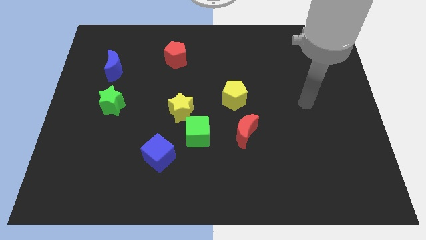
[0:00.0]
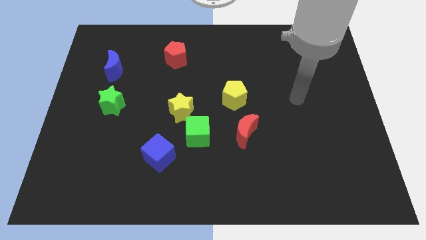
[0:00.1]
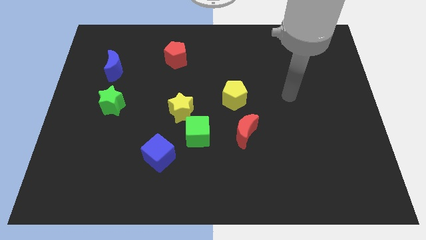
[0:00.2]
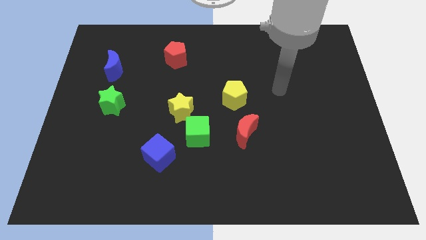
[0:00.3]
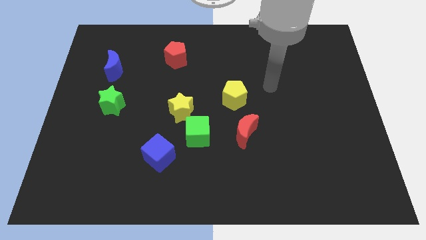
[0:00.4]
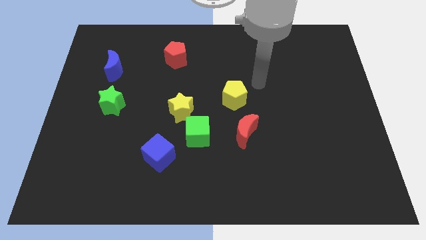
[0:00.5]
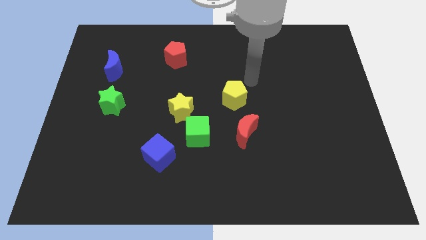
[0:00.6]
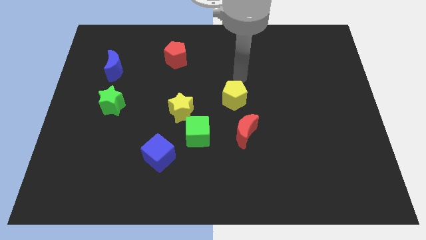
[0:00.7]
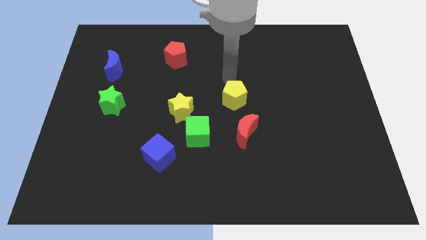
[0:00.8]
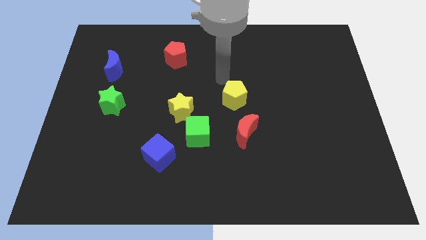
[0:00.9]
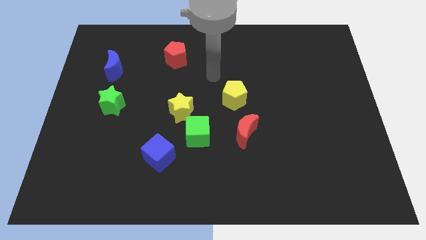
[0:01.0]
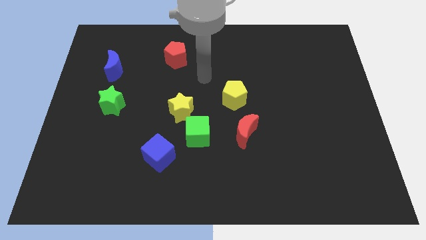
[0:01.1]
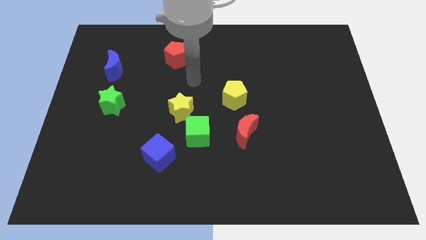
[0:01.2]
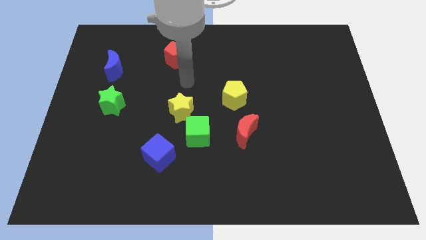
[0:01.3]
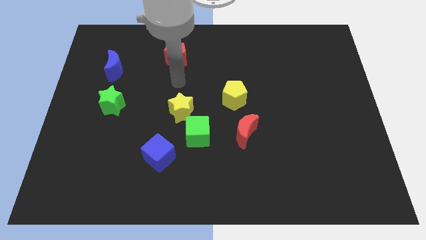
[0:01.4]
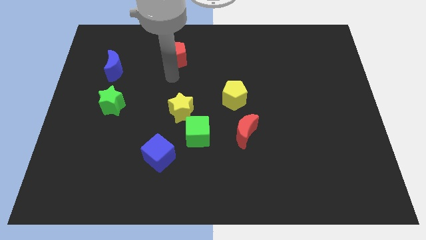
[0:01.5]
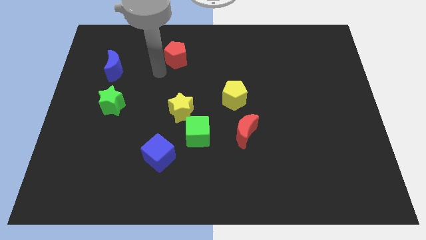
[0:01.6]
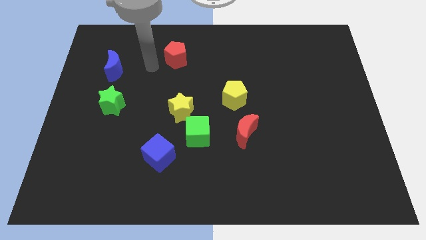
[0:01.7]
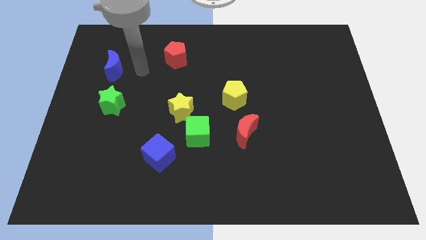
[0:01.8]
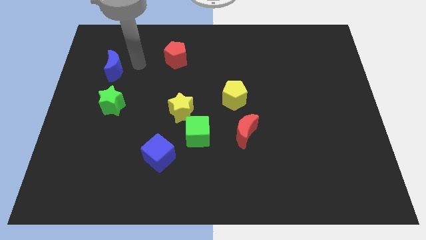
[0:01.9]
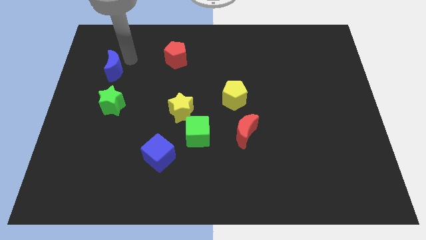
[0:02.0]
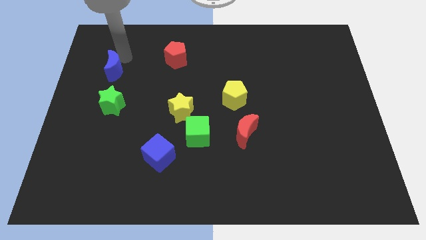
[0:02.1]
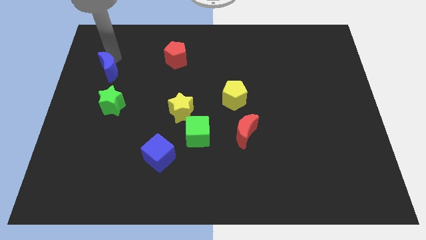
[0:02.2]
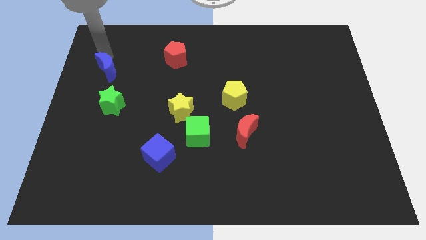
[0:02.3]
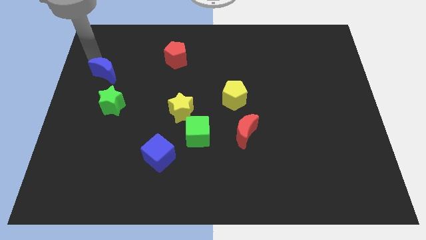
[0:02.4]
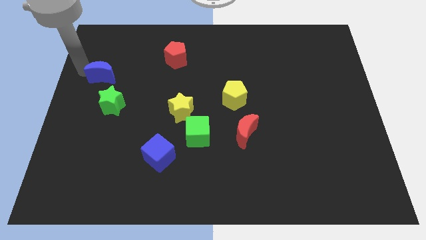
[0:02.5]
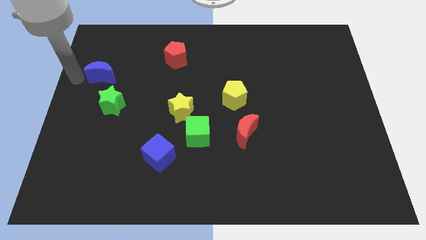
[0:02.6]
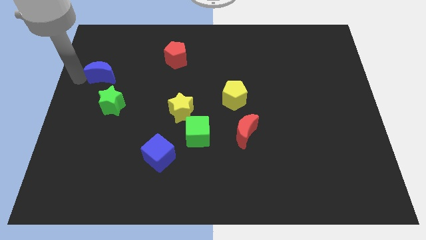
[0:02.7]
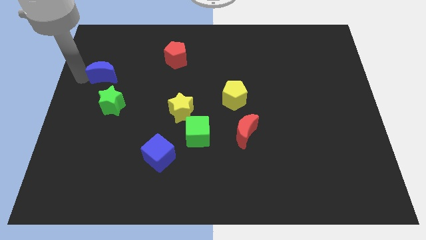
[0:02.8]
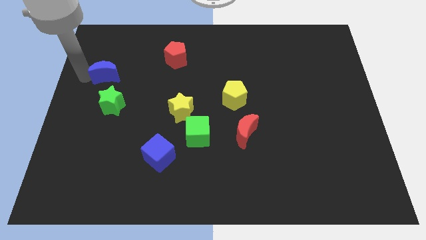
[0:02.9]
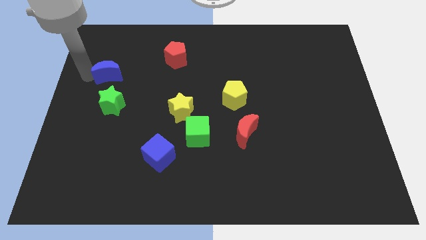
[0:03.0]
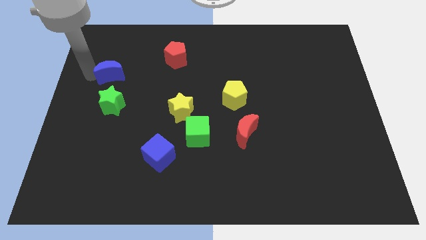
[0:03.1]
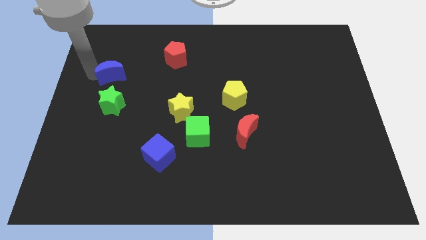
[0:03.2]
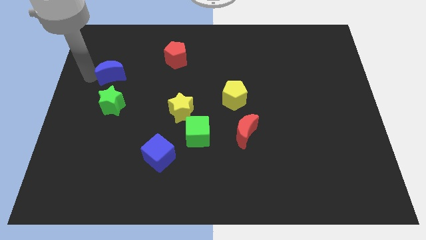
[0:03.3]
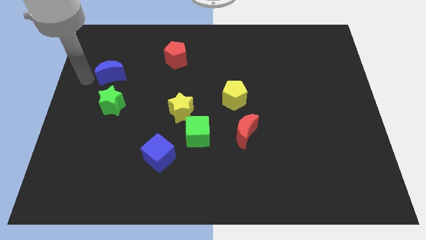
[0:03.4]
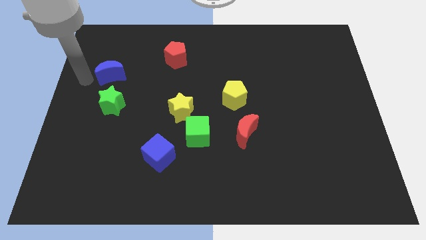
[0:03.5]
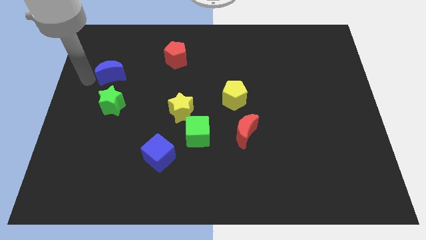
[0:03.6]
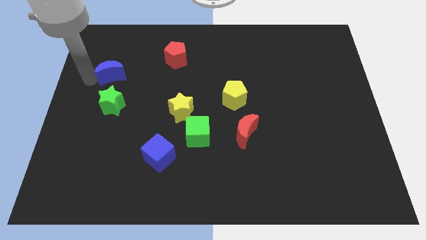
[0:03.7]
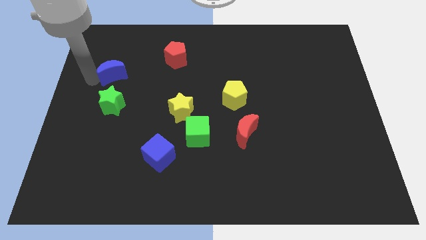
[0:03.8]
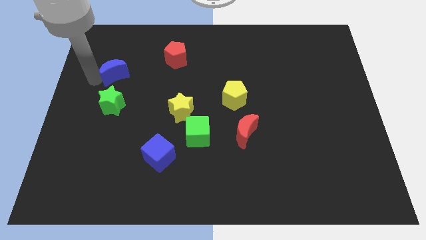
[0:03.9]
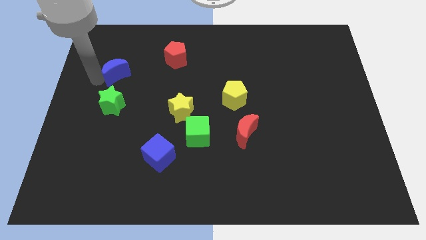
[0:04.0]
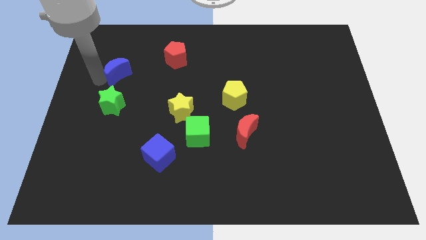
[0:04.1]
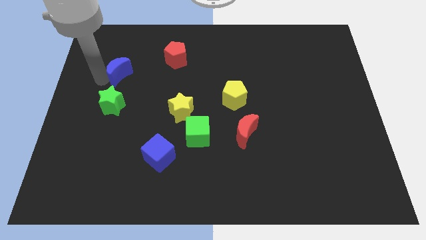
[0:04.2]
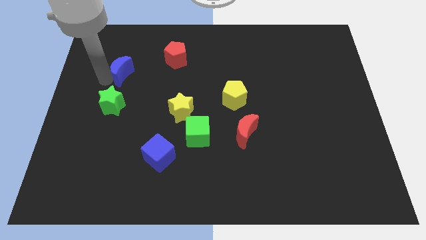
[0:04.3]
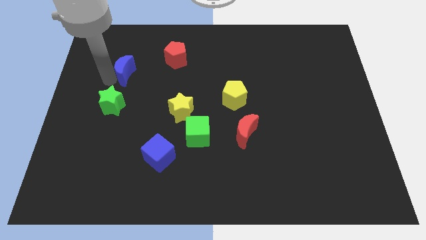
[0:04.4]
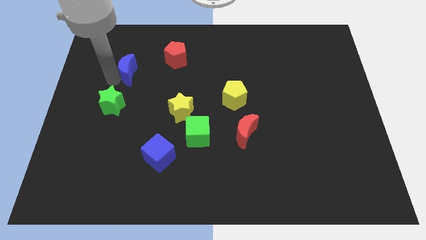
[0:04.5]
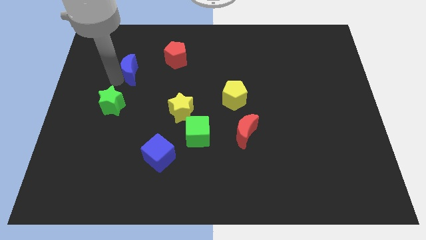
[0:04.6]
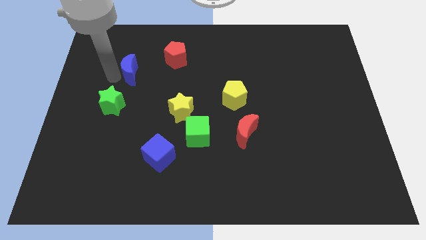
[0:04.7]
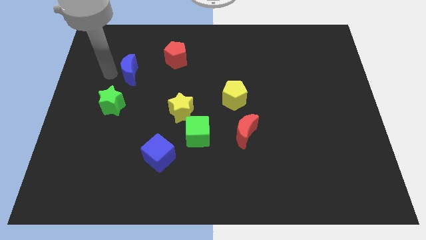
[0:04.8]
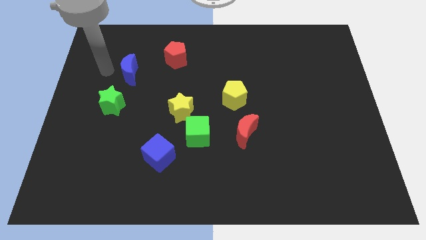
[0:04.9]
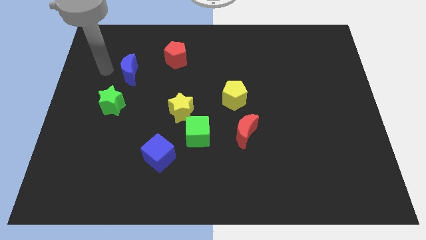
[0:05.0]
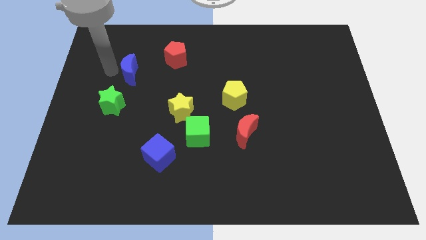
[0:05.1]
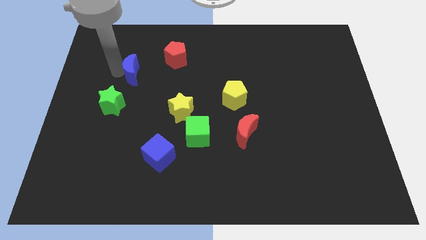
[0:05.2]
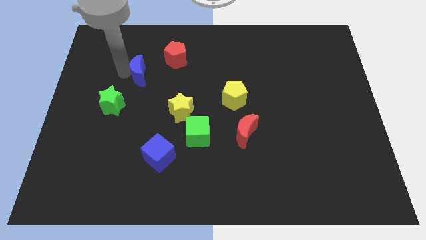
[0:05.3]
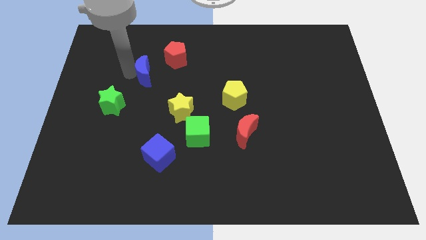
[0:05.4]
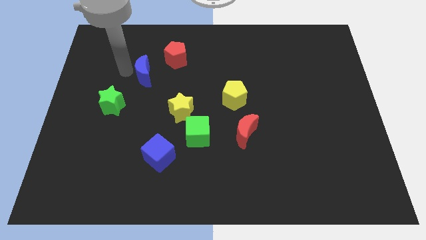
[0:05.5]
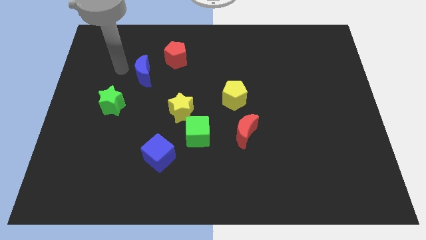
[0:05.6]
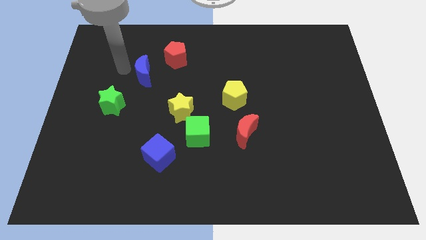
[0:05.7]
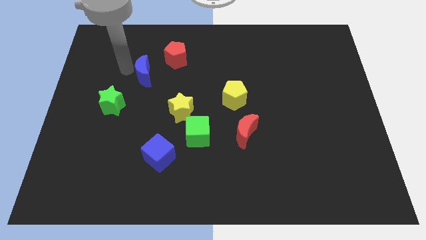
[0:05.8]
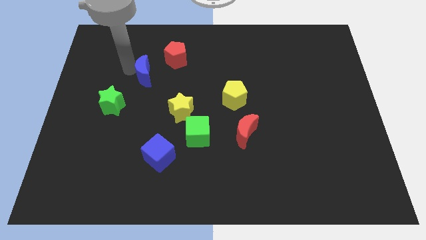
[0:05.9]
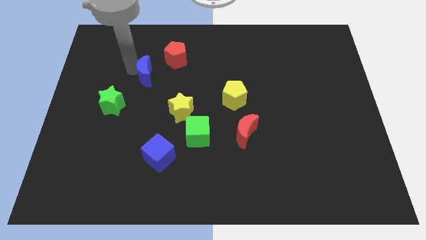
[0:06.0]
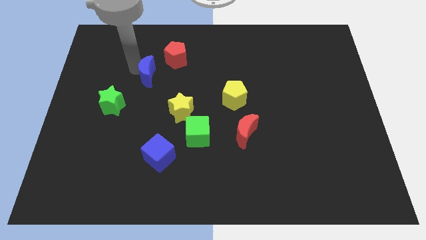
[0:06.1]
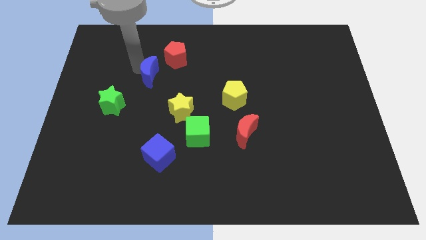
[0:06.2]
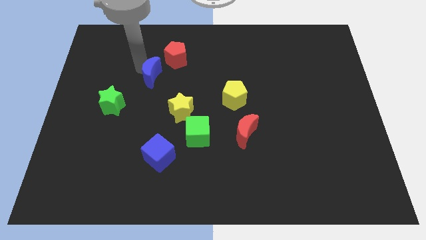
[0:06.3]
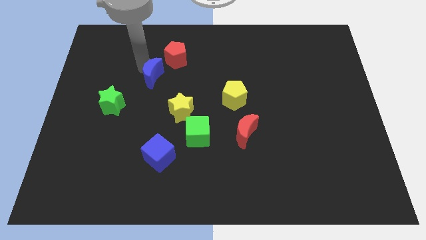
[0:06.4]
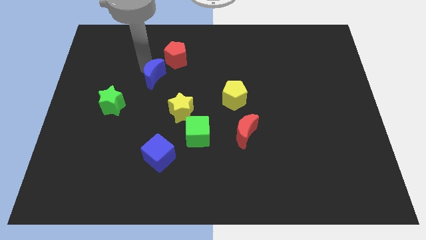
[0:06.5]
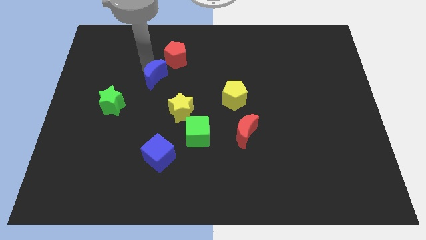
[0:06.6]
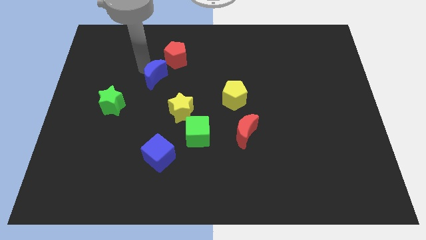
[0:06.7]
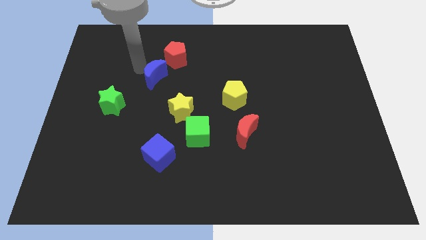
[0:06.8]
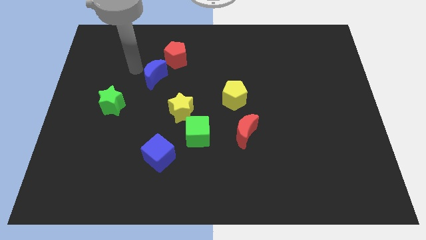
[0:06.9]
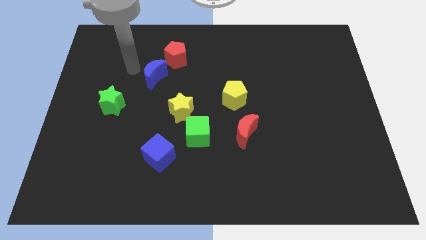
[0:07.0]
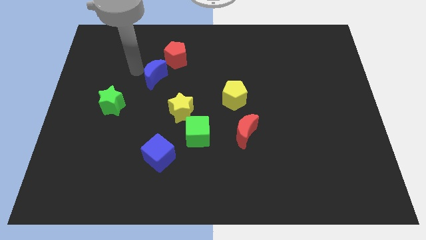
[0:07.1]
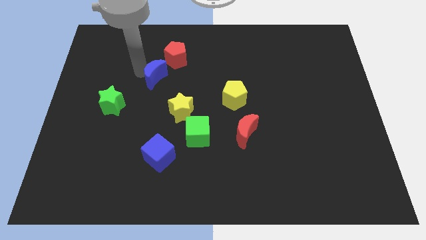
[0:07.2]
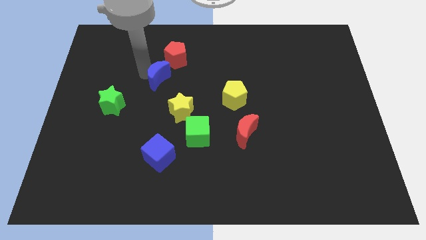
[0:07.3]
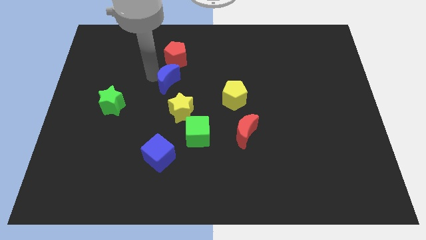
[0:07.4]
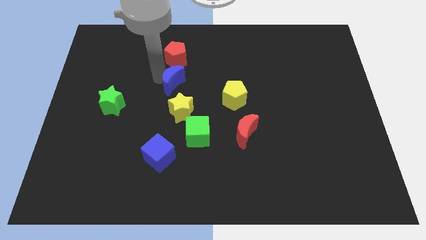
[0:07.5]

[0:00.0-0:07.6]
move the blue moon to the center
